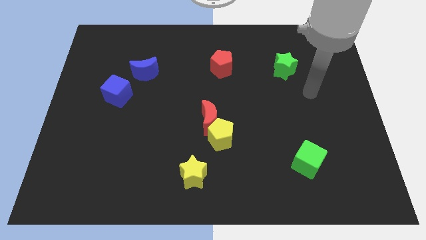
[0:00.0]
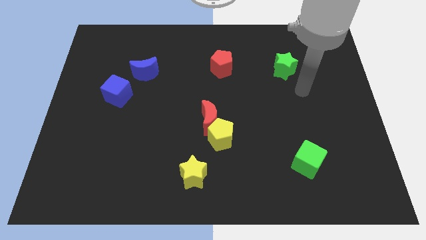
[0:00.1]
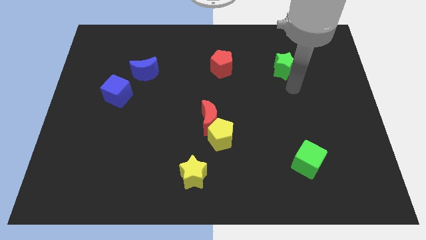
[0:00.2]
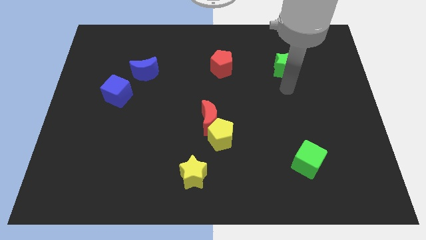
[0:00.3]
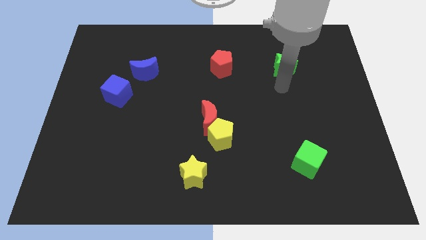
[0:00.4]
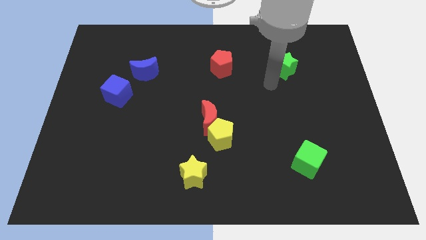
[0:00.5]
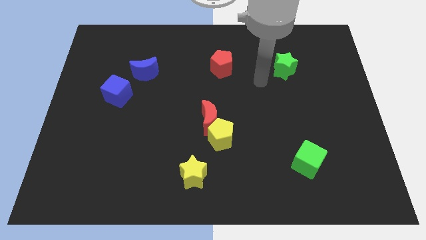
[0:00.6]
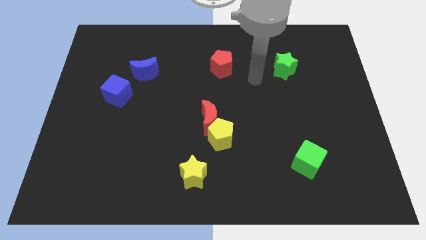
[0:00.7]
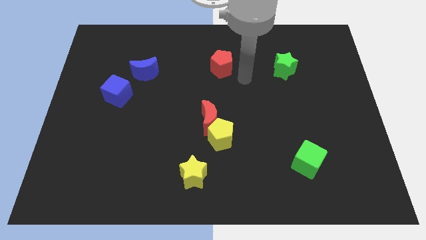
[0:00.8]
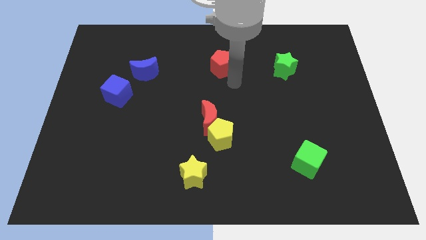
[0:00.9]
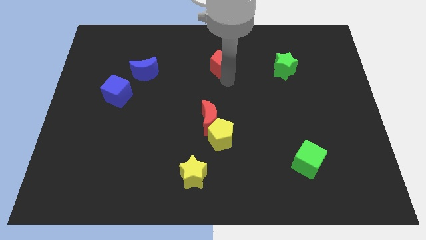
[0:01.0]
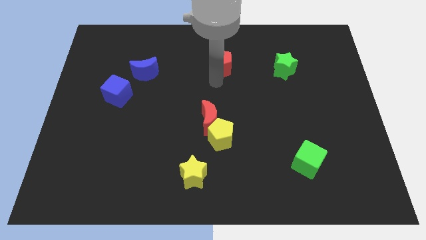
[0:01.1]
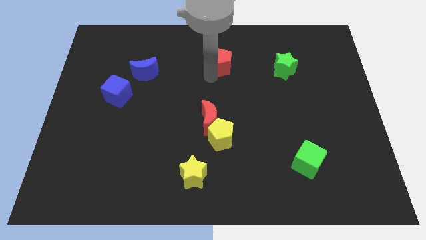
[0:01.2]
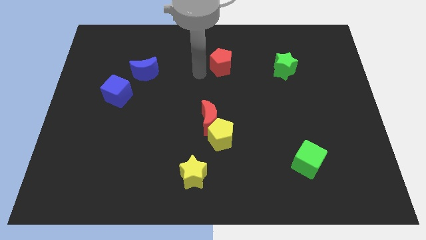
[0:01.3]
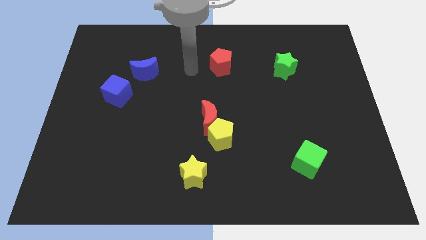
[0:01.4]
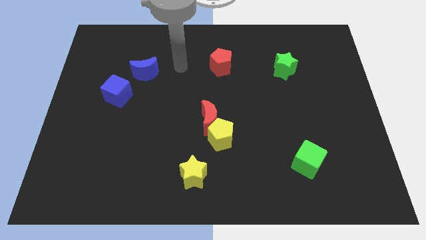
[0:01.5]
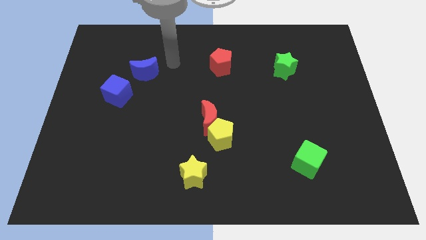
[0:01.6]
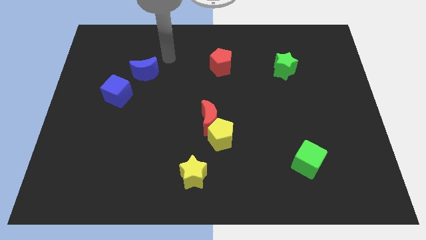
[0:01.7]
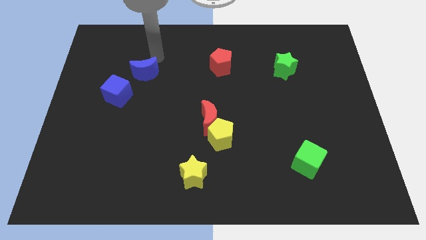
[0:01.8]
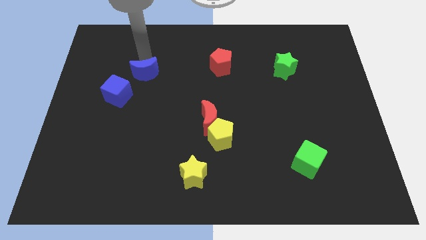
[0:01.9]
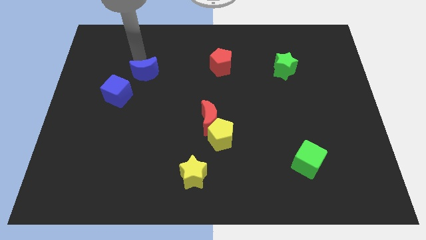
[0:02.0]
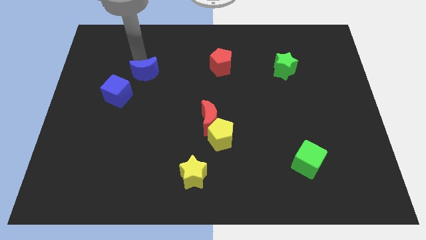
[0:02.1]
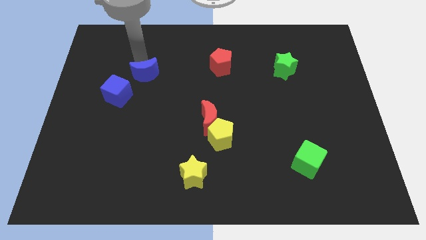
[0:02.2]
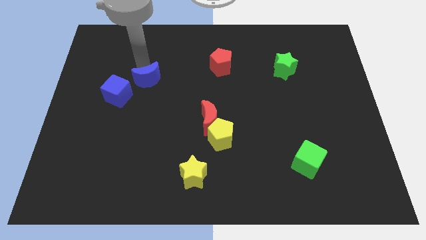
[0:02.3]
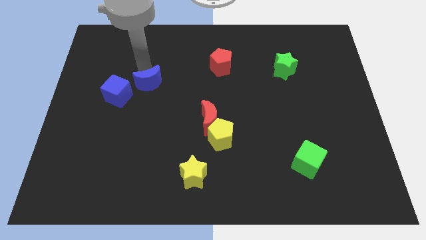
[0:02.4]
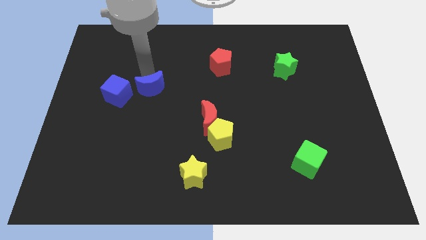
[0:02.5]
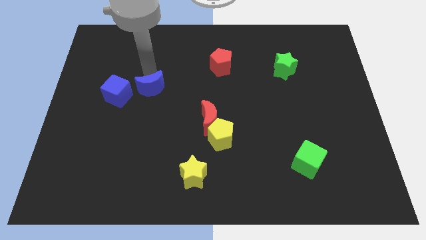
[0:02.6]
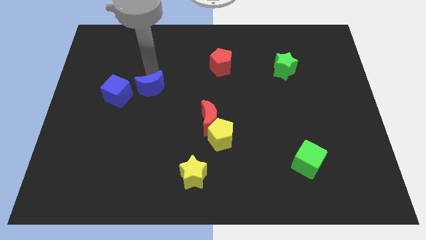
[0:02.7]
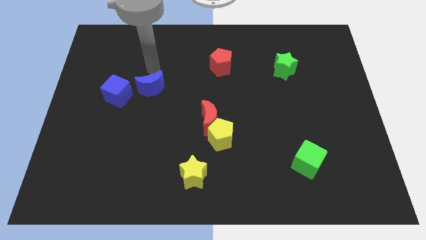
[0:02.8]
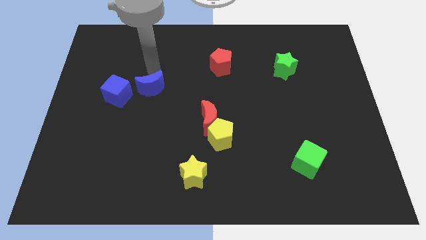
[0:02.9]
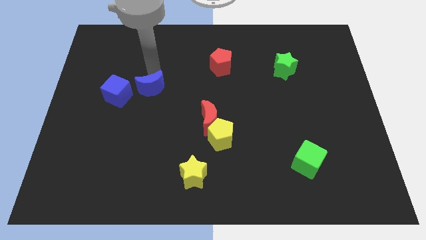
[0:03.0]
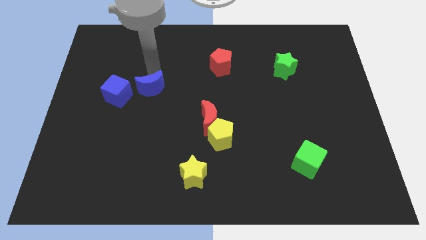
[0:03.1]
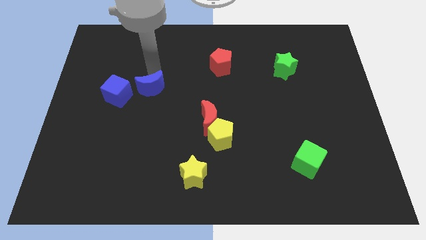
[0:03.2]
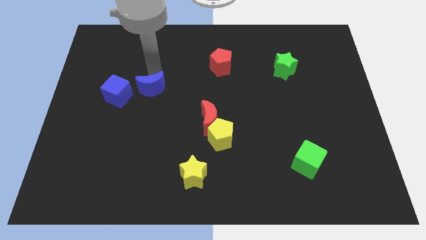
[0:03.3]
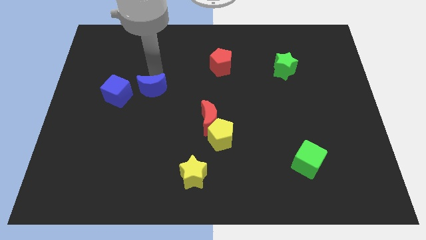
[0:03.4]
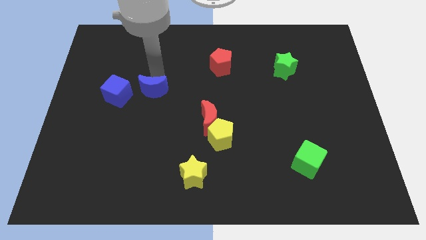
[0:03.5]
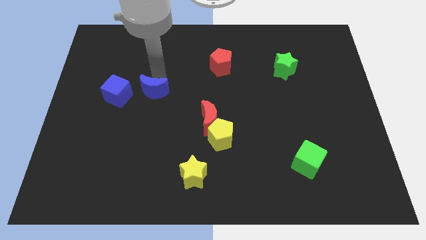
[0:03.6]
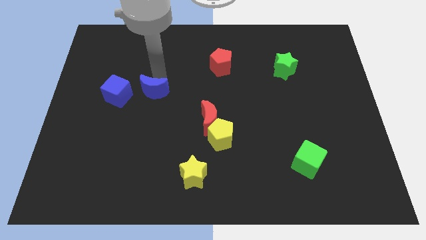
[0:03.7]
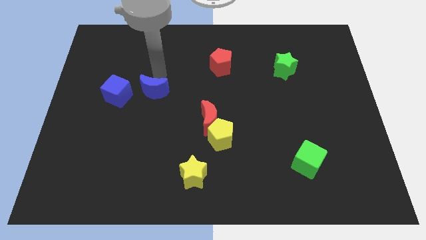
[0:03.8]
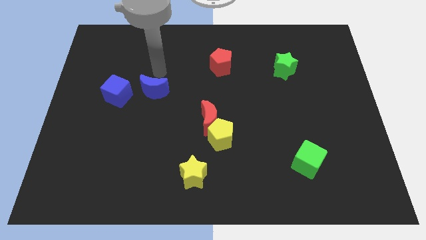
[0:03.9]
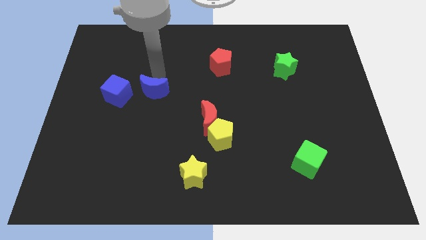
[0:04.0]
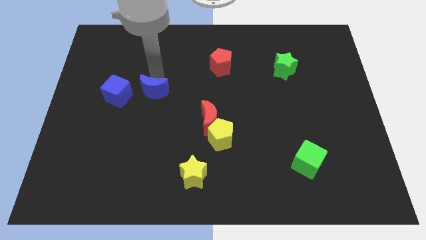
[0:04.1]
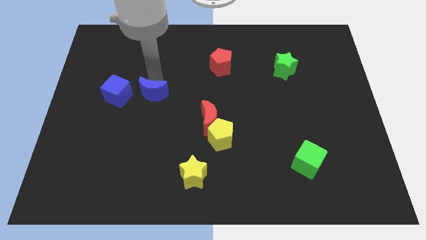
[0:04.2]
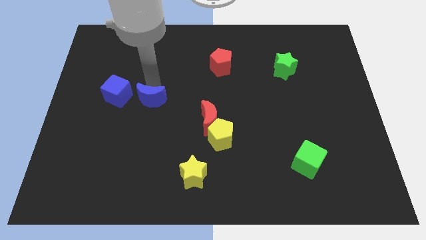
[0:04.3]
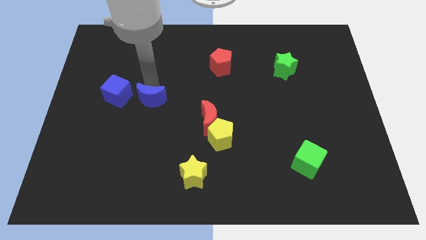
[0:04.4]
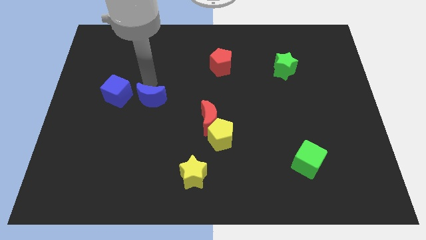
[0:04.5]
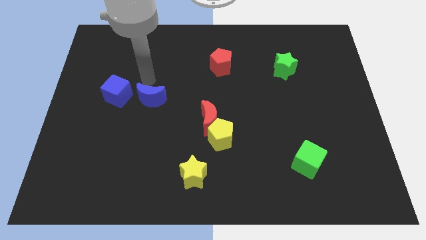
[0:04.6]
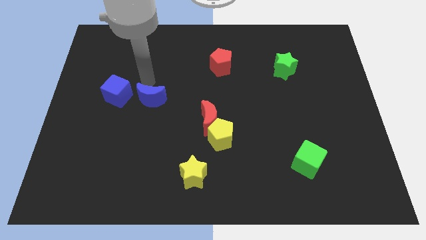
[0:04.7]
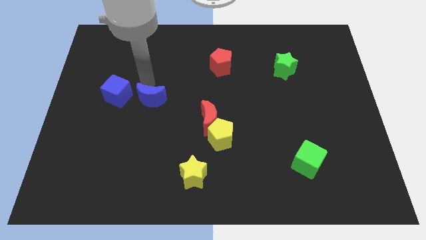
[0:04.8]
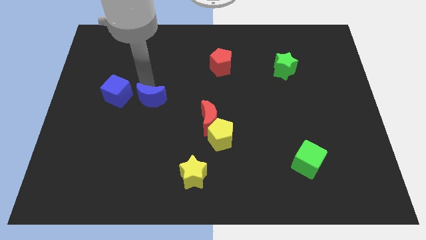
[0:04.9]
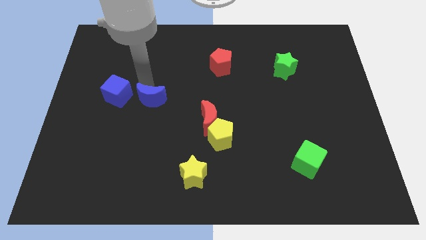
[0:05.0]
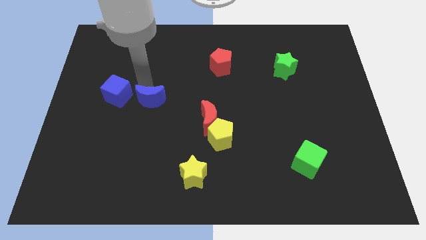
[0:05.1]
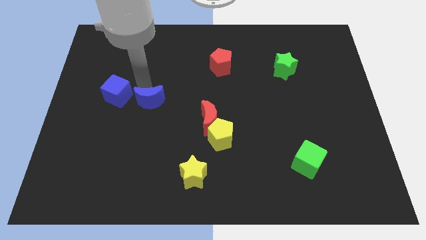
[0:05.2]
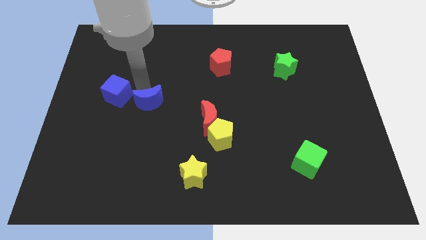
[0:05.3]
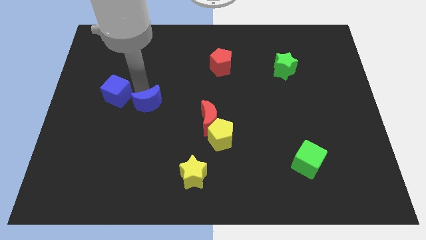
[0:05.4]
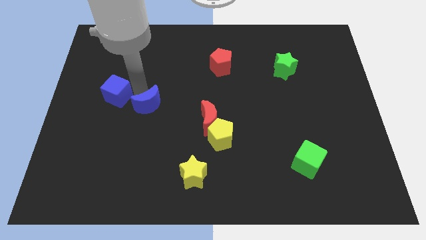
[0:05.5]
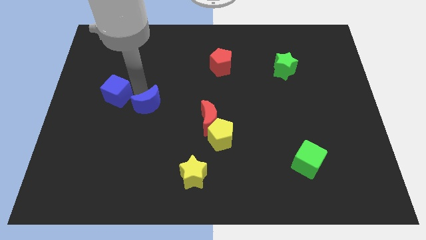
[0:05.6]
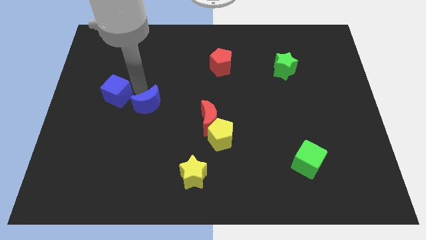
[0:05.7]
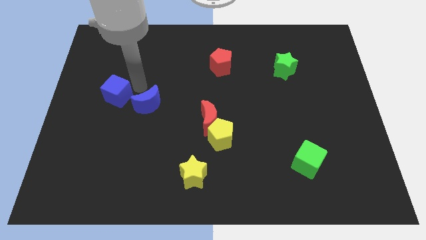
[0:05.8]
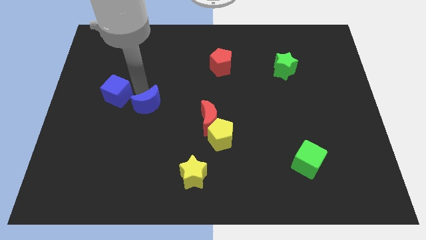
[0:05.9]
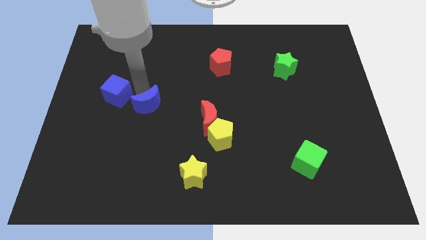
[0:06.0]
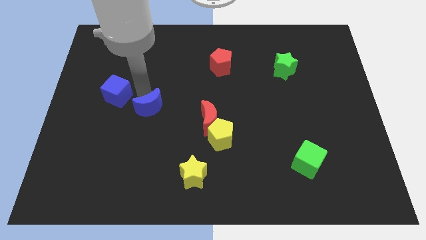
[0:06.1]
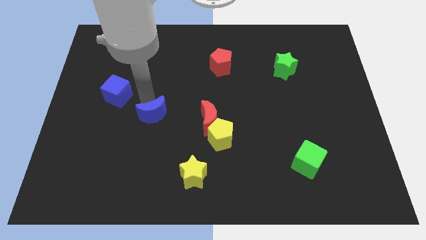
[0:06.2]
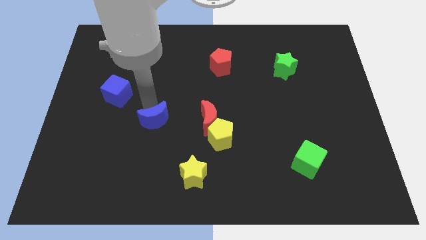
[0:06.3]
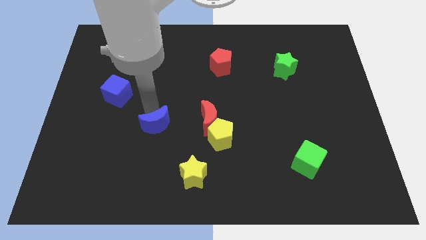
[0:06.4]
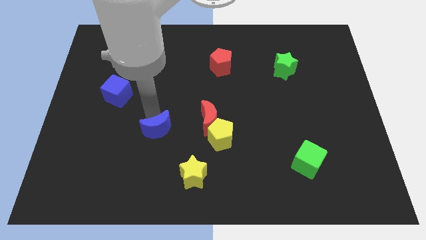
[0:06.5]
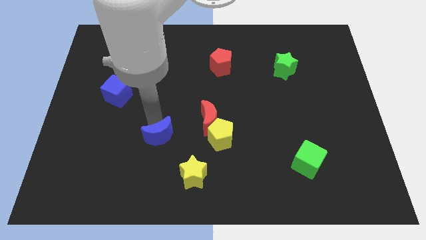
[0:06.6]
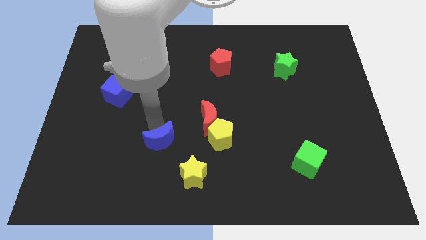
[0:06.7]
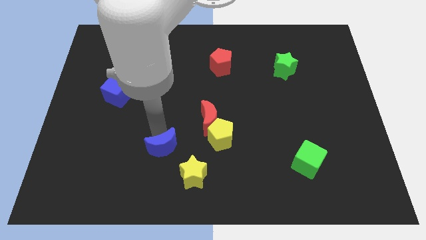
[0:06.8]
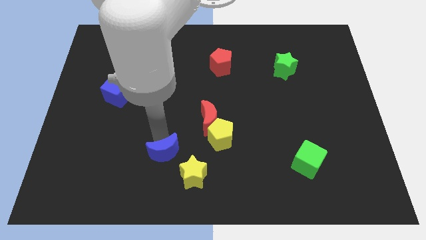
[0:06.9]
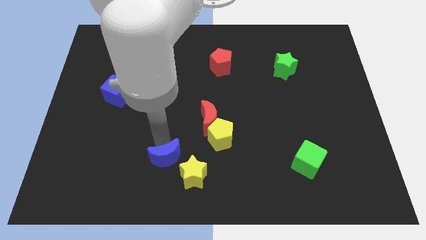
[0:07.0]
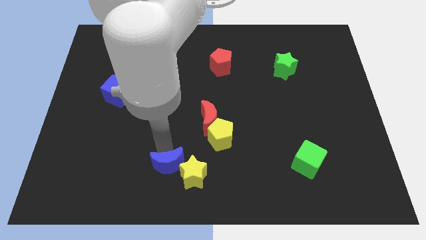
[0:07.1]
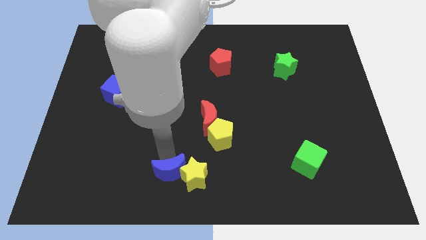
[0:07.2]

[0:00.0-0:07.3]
move the blue moon to the bottom
